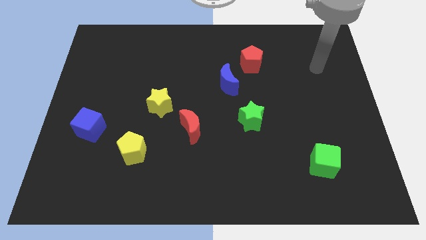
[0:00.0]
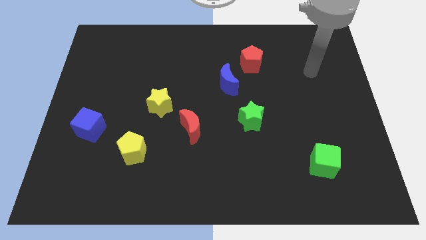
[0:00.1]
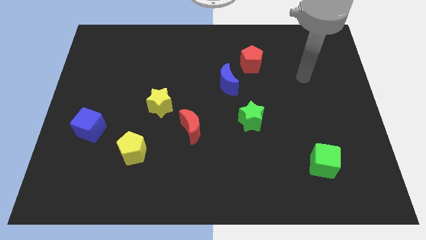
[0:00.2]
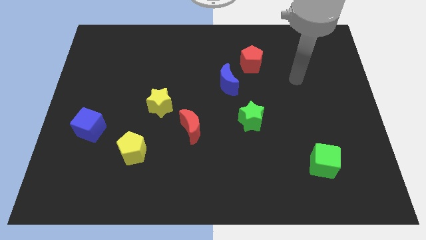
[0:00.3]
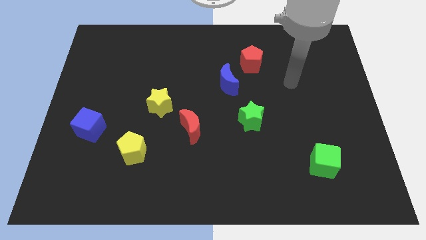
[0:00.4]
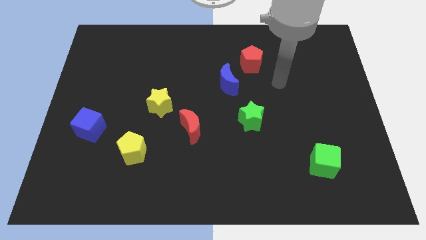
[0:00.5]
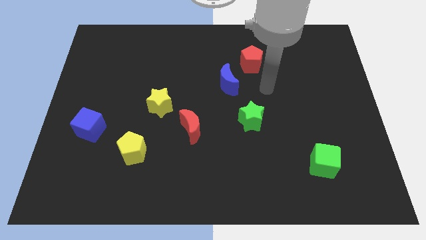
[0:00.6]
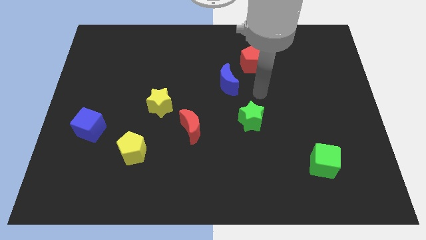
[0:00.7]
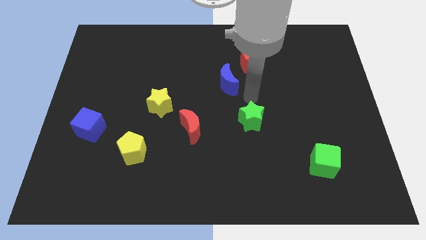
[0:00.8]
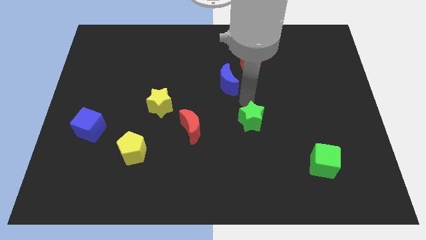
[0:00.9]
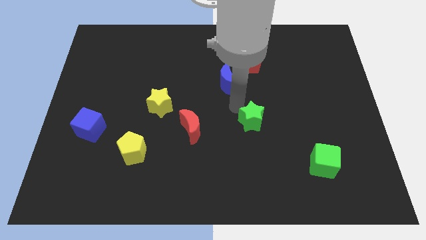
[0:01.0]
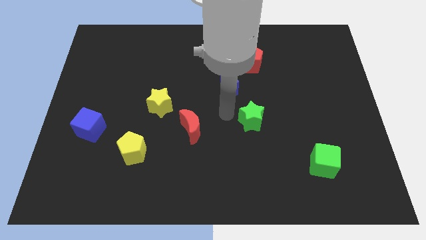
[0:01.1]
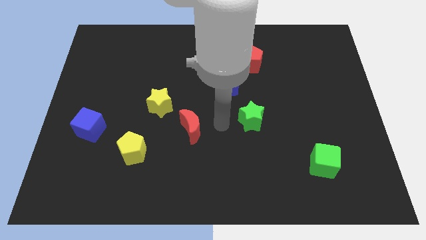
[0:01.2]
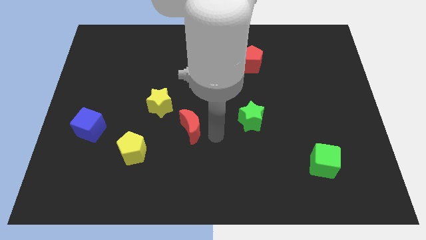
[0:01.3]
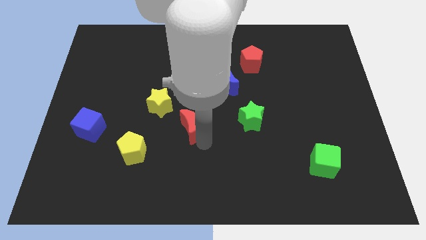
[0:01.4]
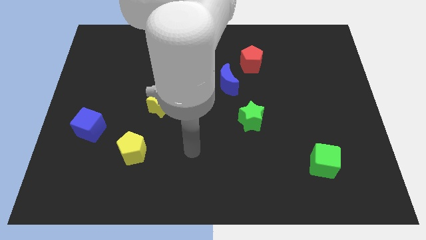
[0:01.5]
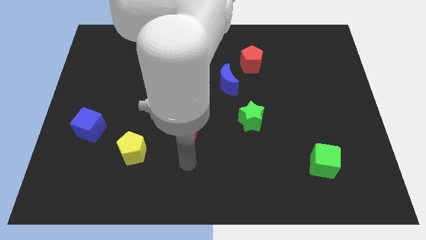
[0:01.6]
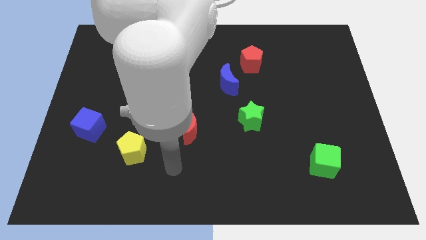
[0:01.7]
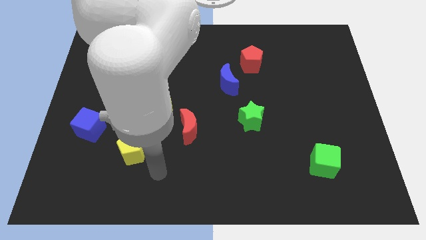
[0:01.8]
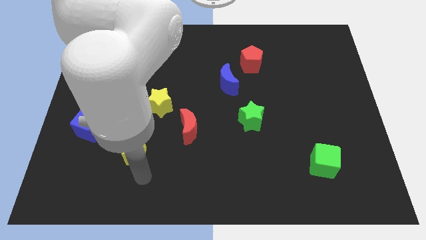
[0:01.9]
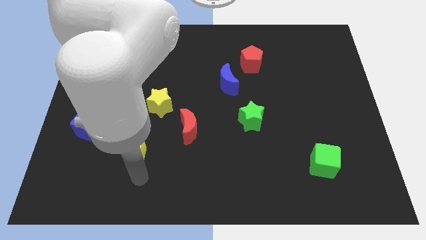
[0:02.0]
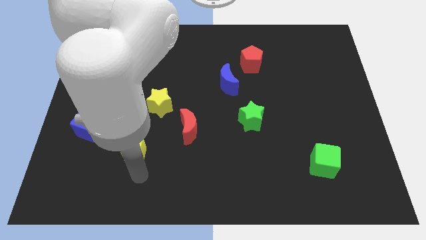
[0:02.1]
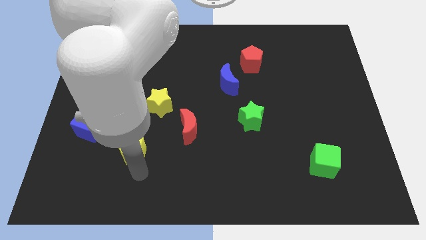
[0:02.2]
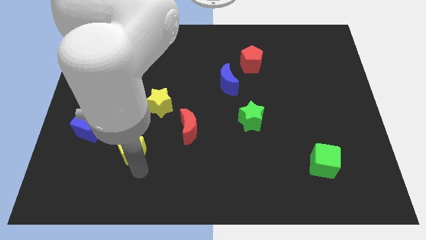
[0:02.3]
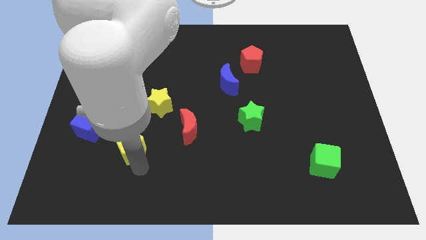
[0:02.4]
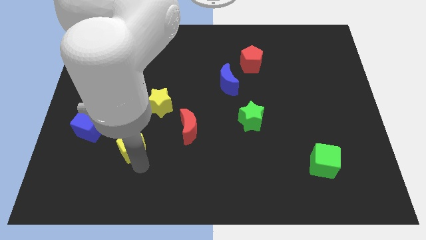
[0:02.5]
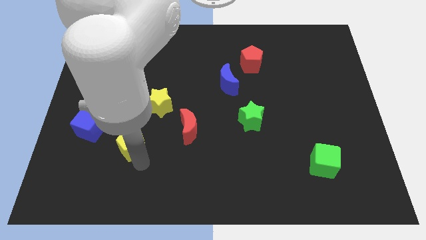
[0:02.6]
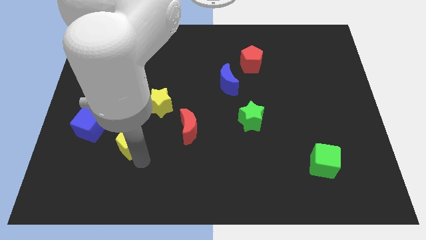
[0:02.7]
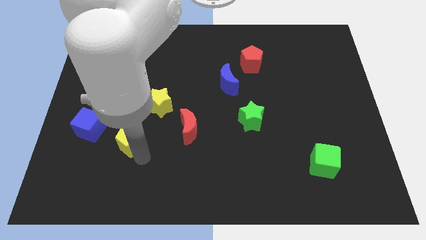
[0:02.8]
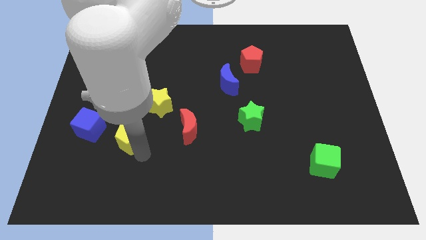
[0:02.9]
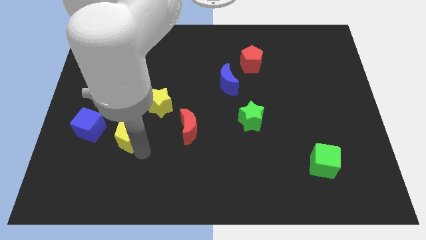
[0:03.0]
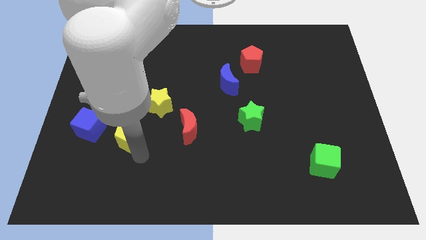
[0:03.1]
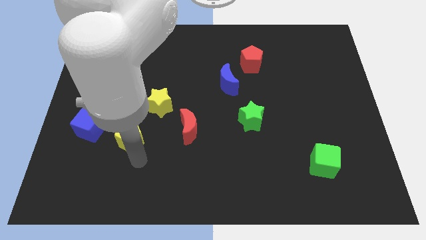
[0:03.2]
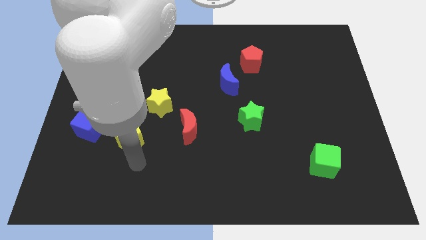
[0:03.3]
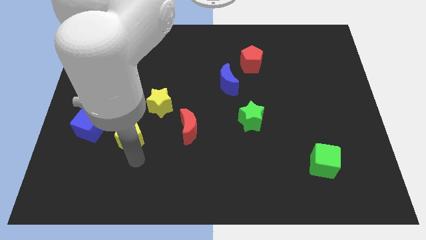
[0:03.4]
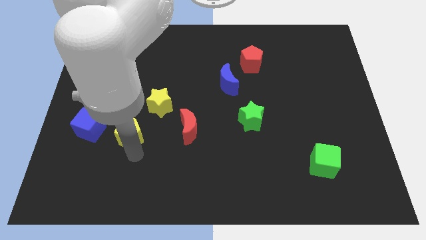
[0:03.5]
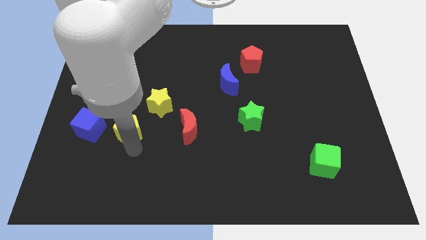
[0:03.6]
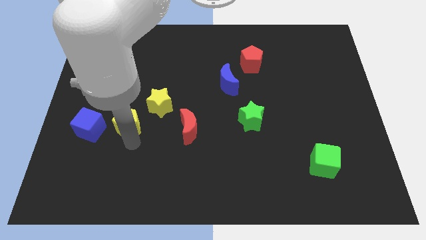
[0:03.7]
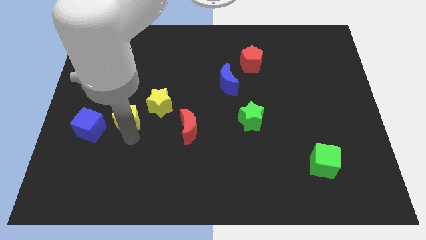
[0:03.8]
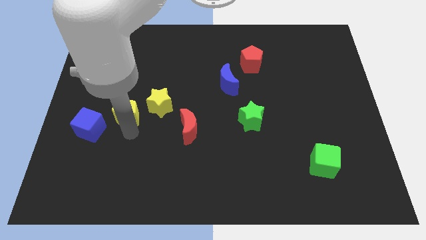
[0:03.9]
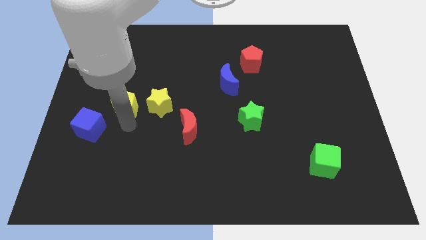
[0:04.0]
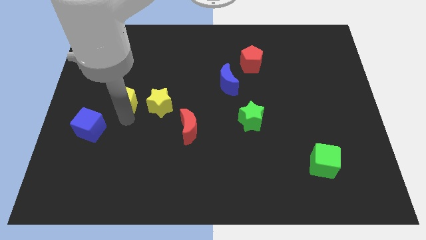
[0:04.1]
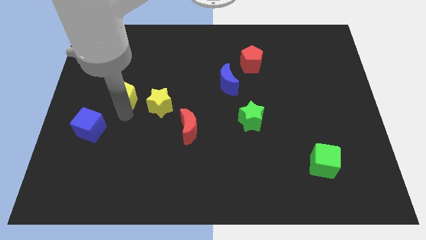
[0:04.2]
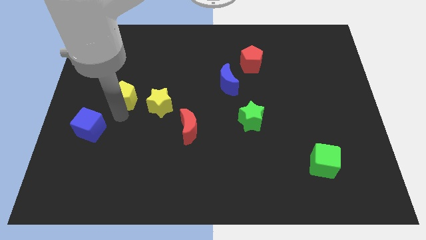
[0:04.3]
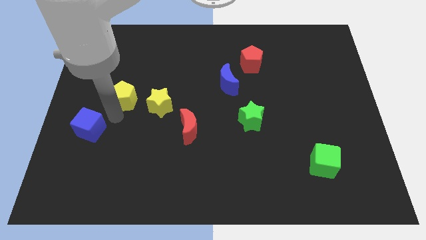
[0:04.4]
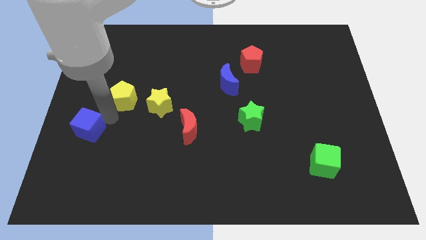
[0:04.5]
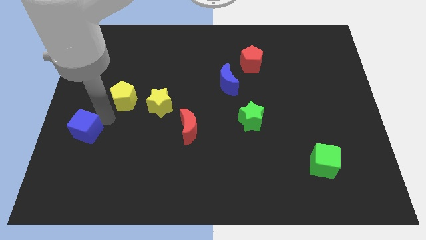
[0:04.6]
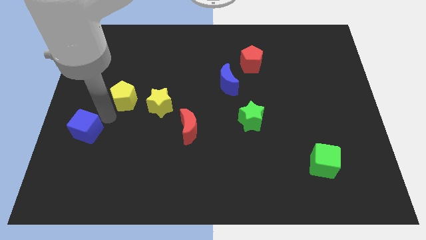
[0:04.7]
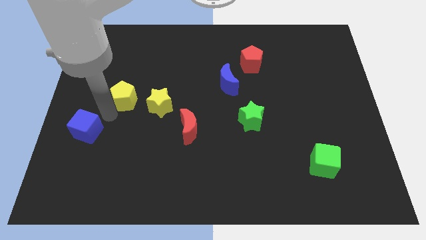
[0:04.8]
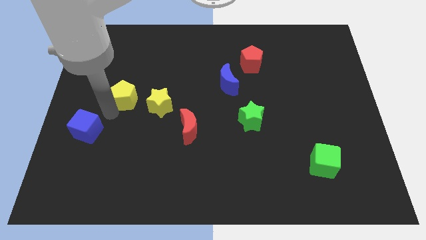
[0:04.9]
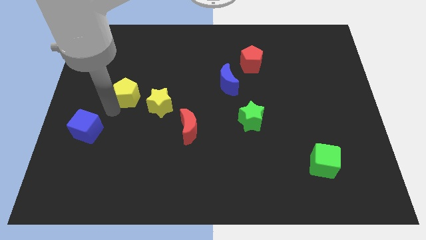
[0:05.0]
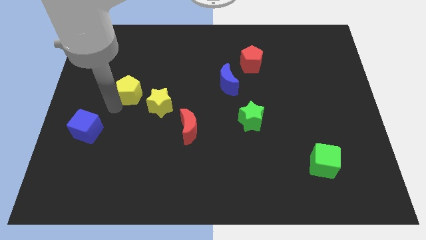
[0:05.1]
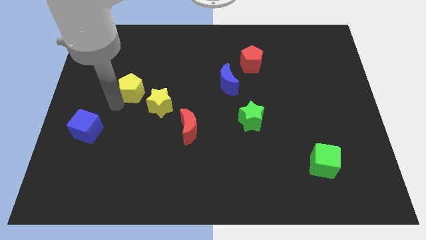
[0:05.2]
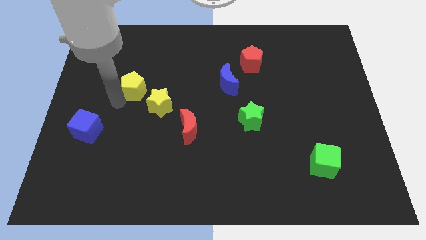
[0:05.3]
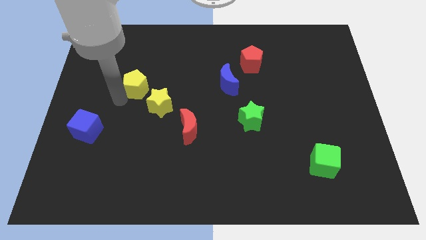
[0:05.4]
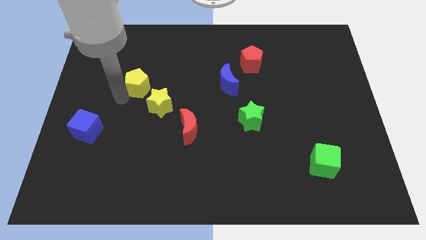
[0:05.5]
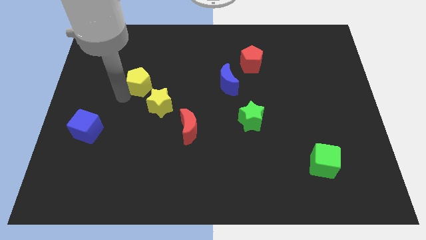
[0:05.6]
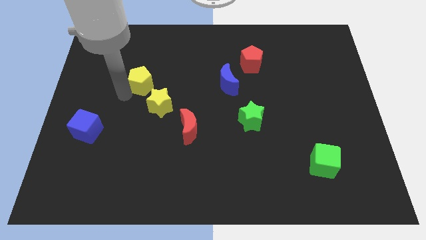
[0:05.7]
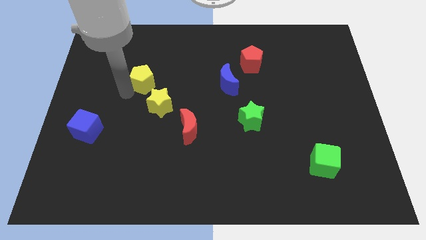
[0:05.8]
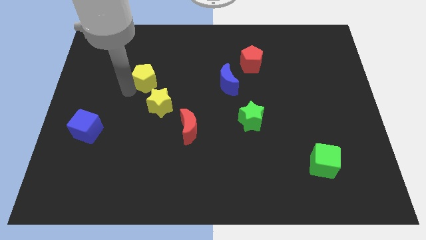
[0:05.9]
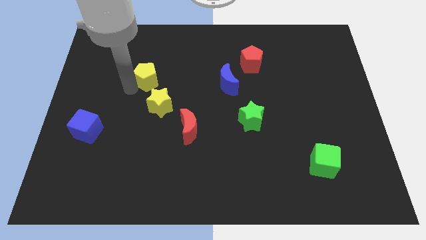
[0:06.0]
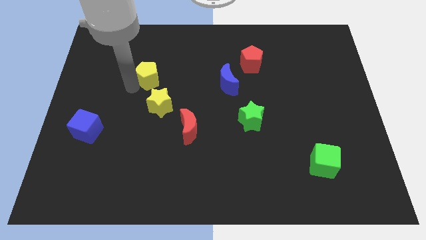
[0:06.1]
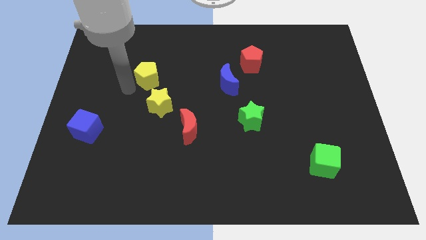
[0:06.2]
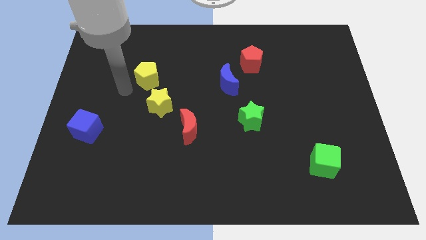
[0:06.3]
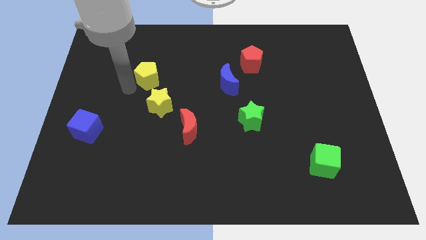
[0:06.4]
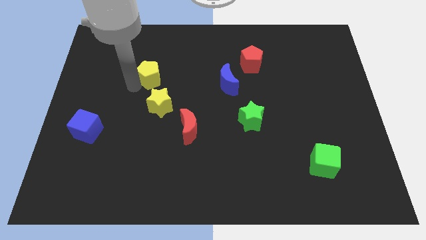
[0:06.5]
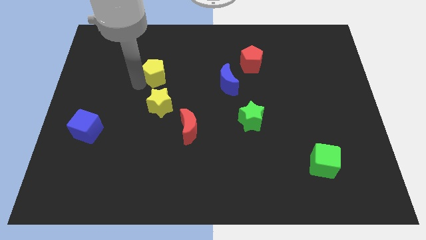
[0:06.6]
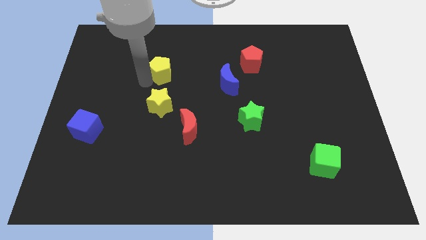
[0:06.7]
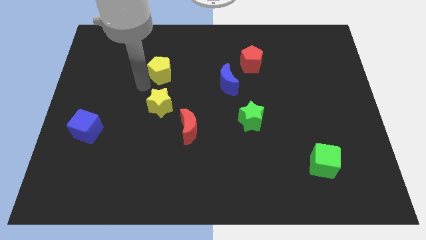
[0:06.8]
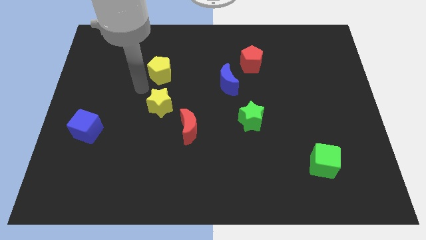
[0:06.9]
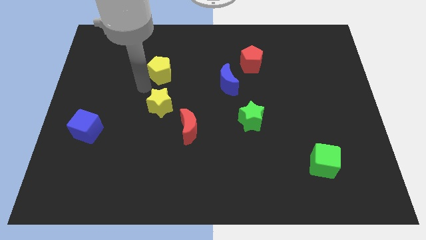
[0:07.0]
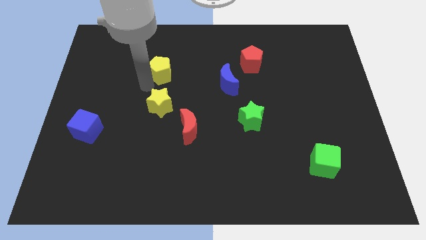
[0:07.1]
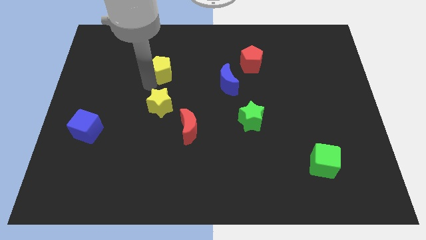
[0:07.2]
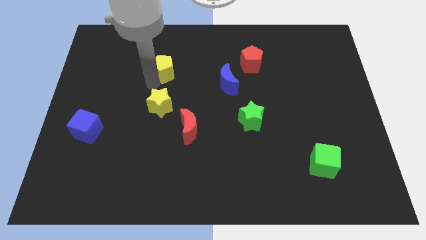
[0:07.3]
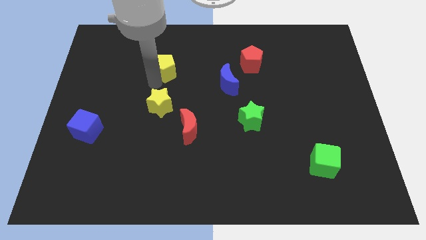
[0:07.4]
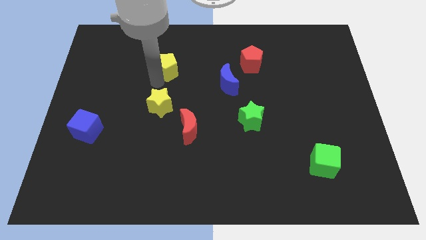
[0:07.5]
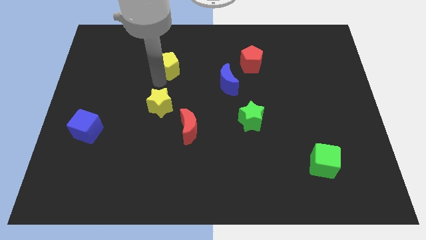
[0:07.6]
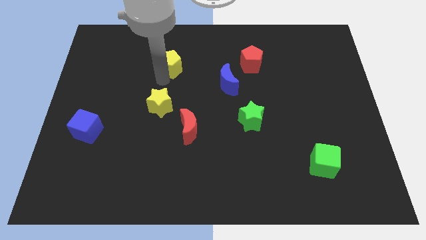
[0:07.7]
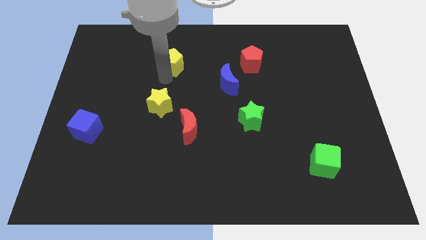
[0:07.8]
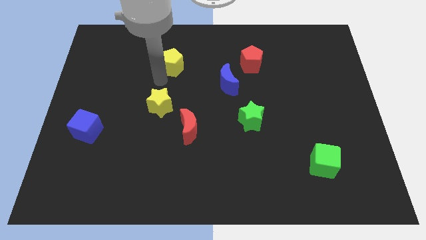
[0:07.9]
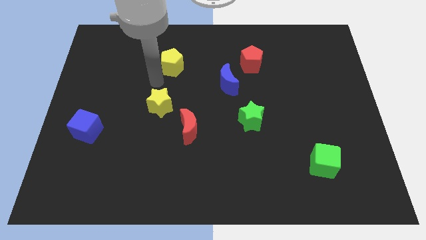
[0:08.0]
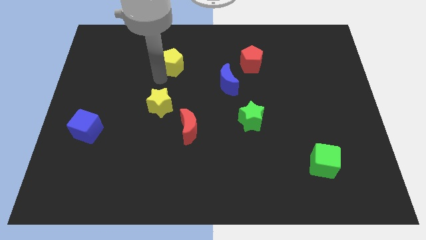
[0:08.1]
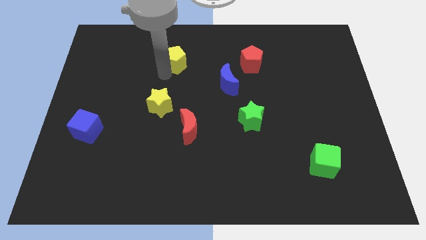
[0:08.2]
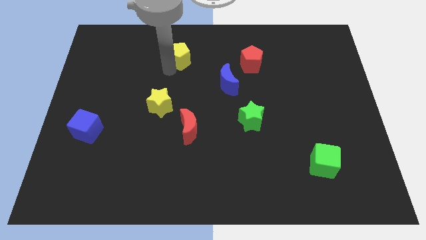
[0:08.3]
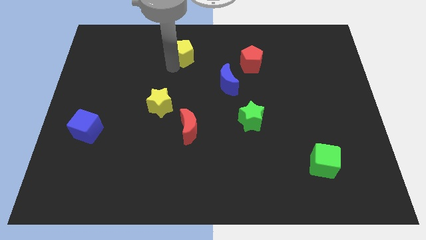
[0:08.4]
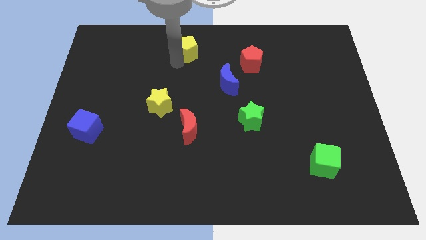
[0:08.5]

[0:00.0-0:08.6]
put the yellow pentagon to the top side
